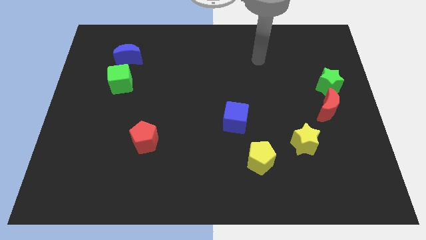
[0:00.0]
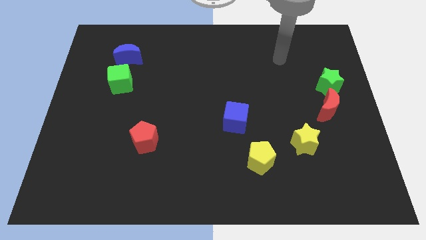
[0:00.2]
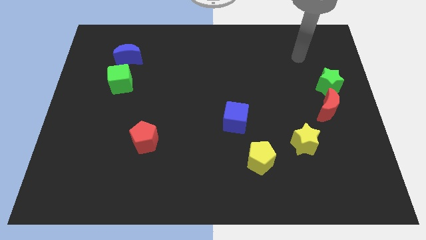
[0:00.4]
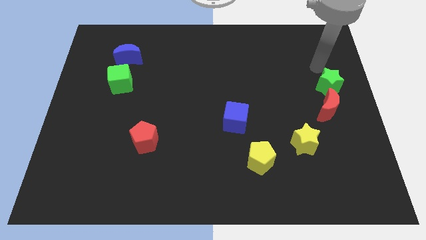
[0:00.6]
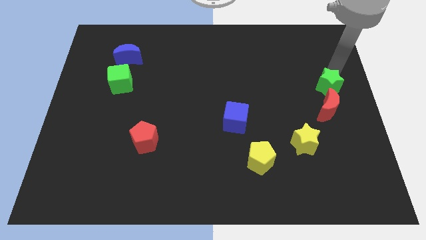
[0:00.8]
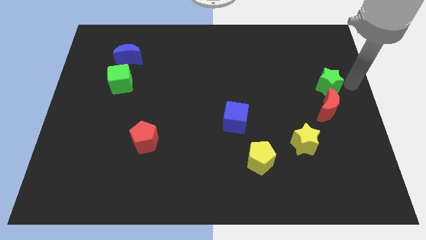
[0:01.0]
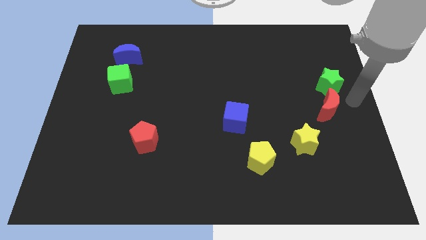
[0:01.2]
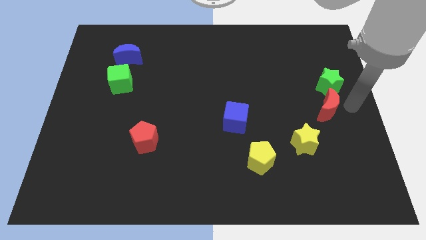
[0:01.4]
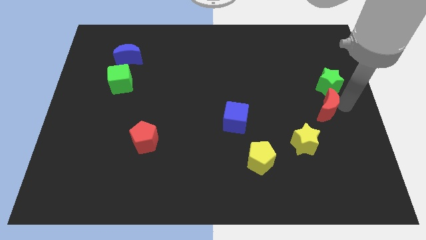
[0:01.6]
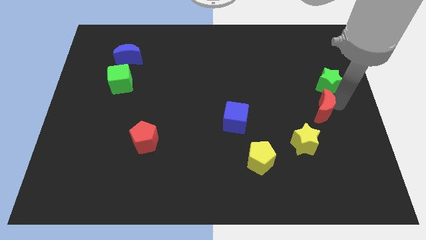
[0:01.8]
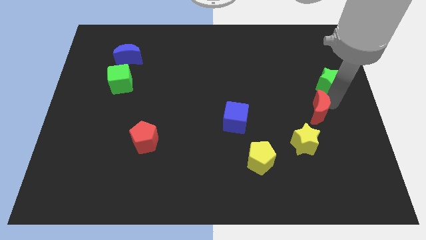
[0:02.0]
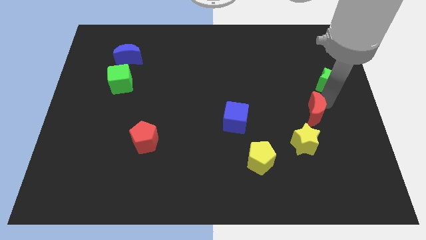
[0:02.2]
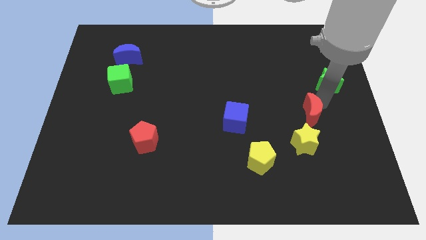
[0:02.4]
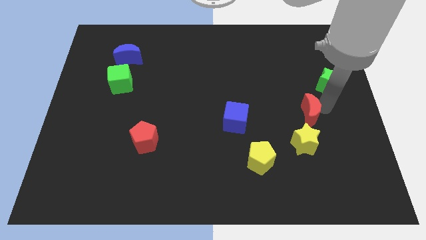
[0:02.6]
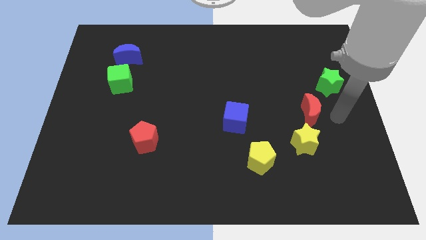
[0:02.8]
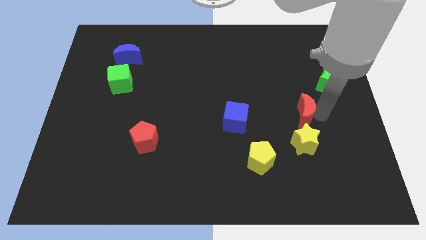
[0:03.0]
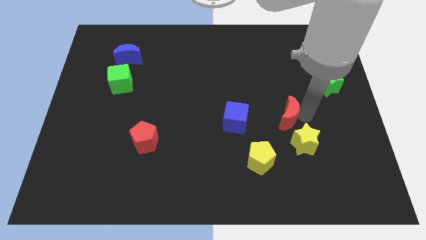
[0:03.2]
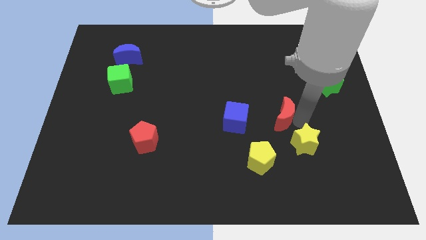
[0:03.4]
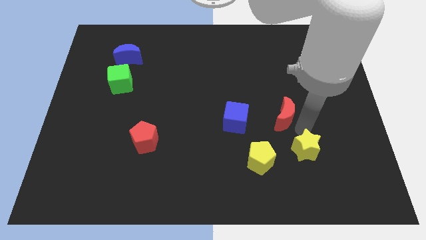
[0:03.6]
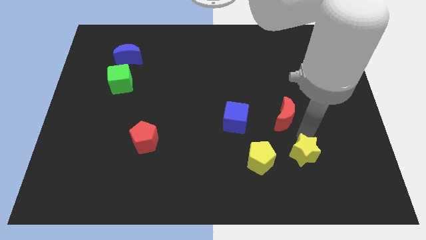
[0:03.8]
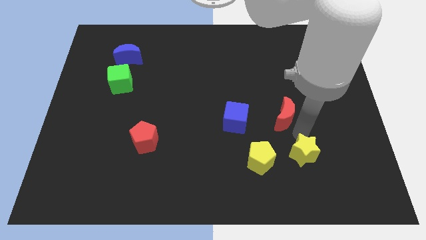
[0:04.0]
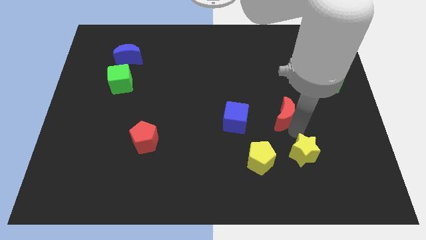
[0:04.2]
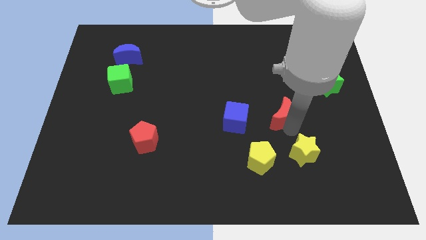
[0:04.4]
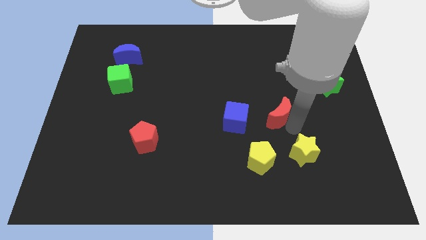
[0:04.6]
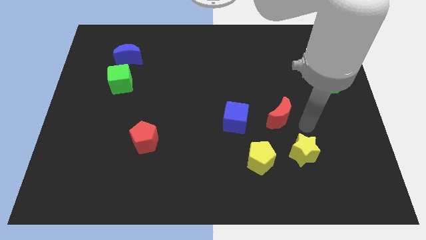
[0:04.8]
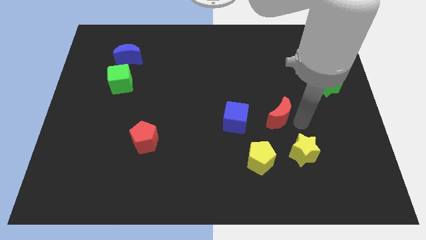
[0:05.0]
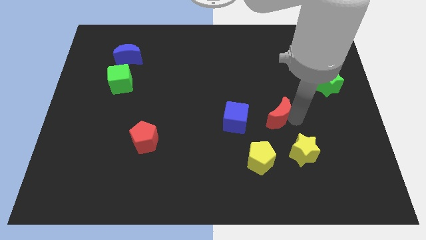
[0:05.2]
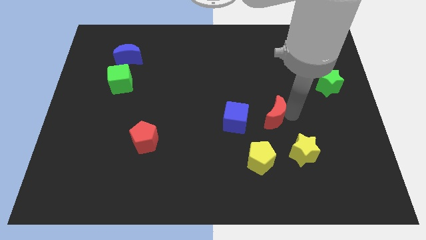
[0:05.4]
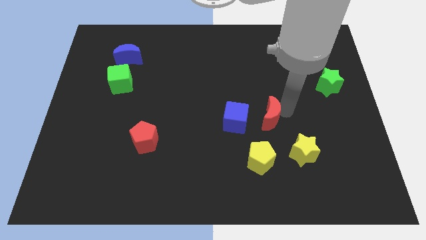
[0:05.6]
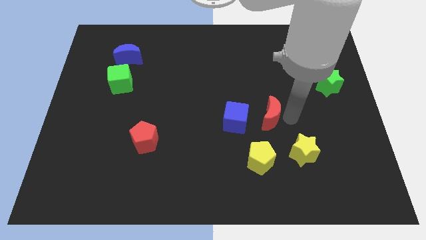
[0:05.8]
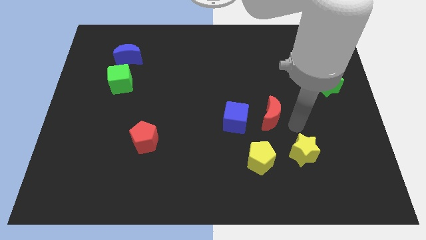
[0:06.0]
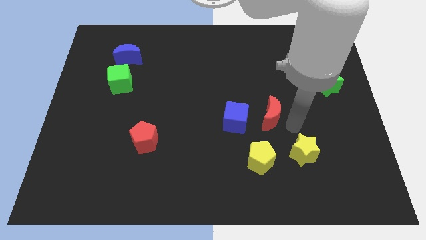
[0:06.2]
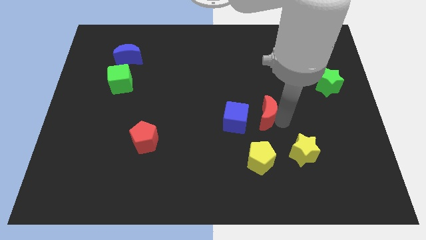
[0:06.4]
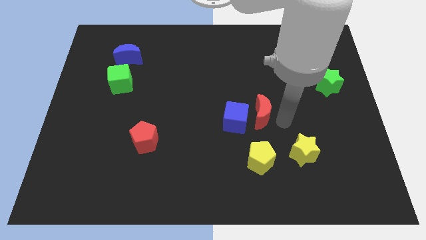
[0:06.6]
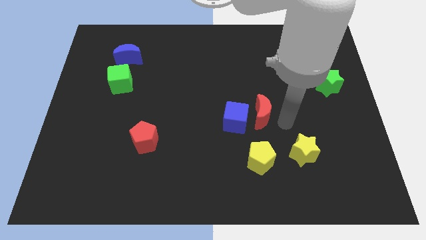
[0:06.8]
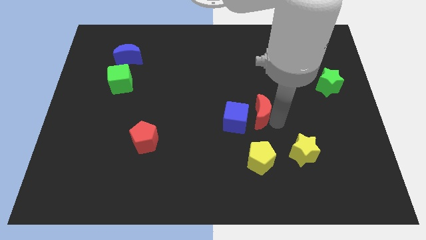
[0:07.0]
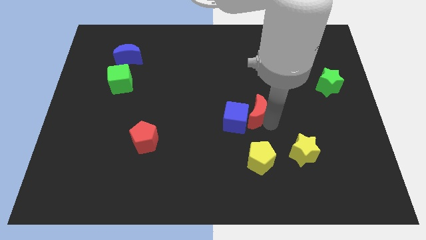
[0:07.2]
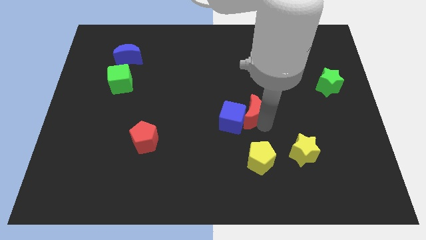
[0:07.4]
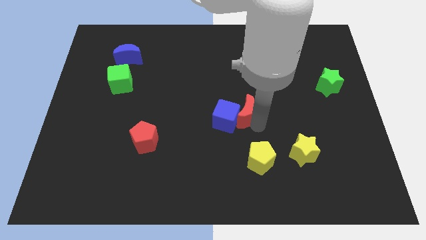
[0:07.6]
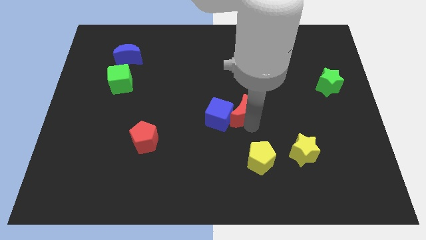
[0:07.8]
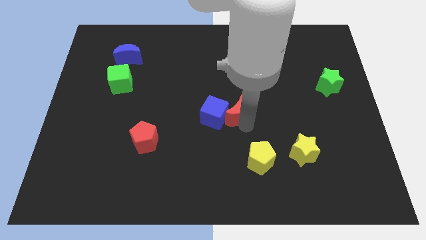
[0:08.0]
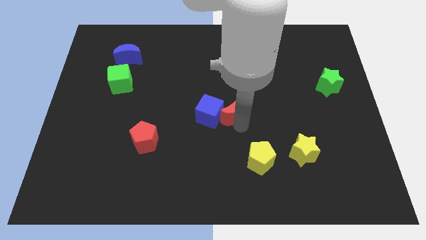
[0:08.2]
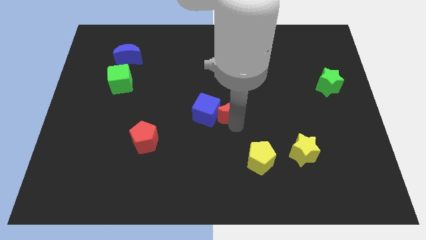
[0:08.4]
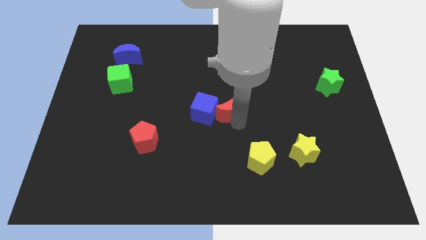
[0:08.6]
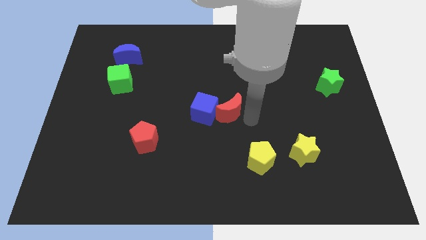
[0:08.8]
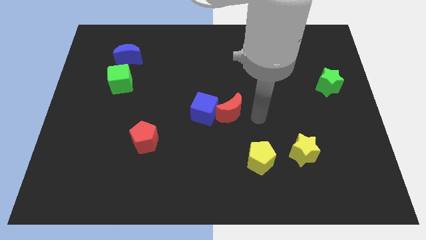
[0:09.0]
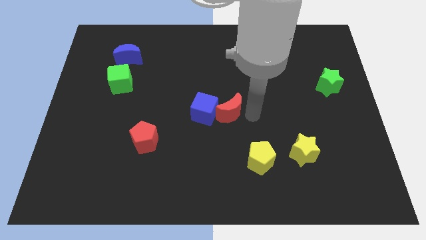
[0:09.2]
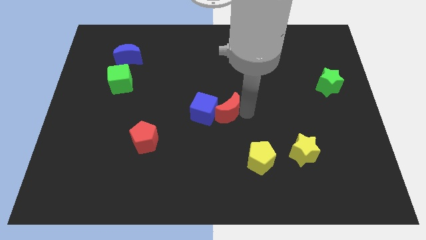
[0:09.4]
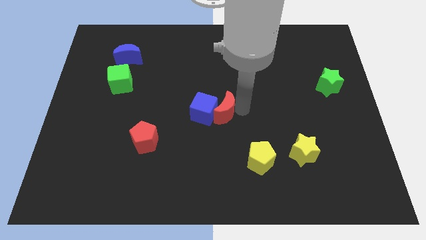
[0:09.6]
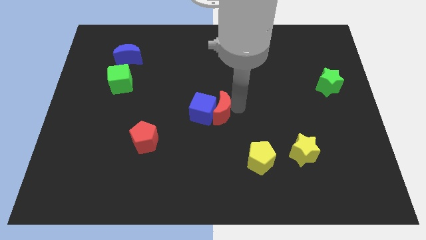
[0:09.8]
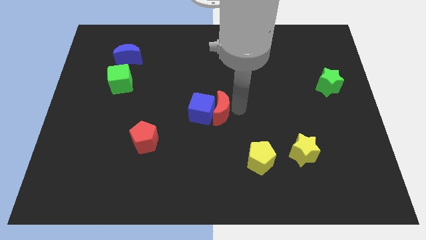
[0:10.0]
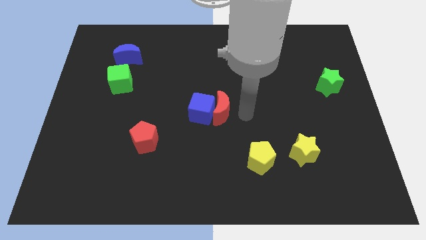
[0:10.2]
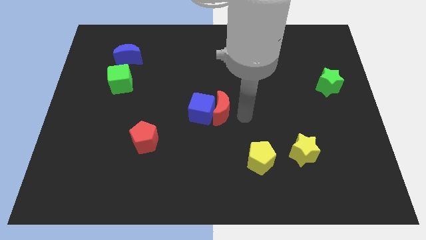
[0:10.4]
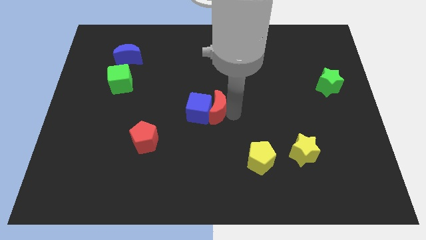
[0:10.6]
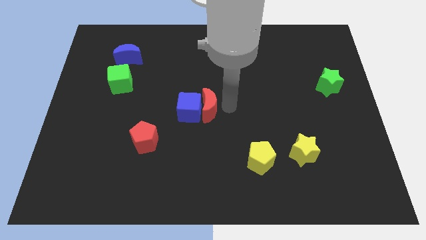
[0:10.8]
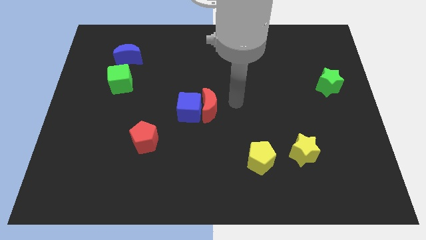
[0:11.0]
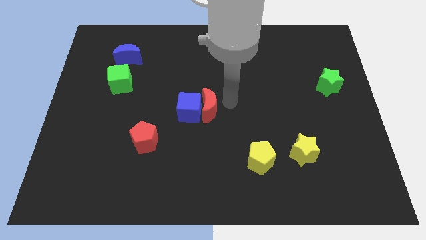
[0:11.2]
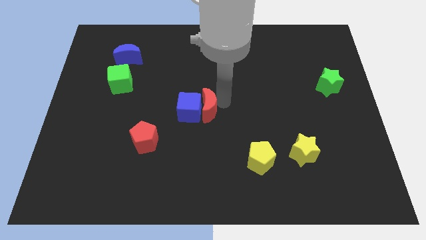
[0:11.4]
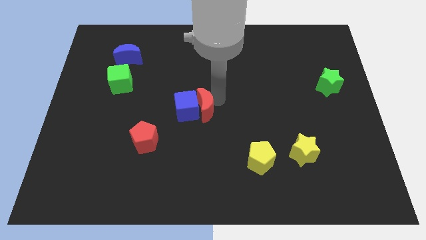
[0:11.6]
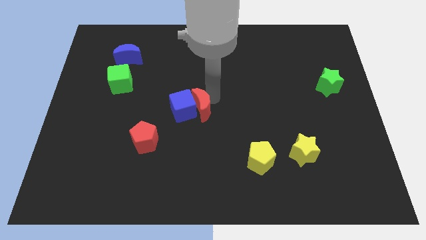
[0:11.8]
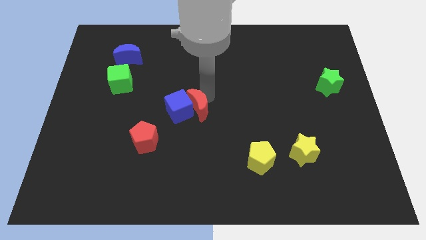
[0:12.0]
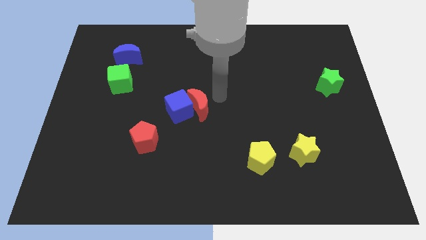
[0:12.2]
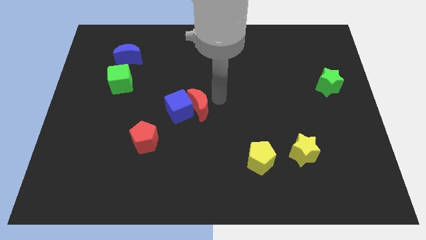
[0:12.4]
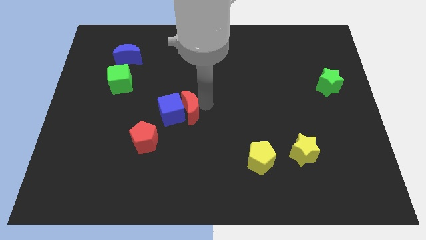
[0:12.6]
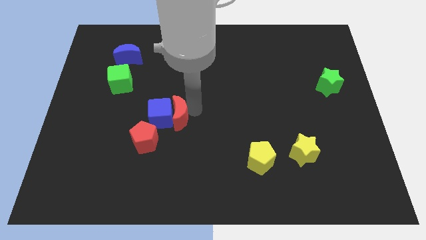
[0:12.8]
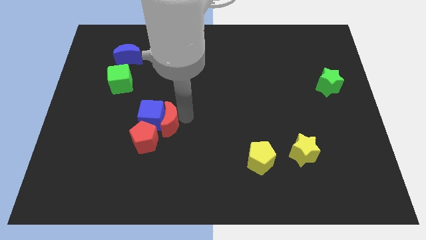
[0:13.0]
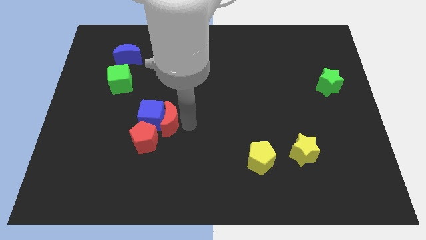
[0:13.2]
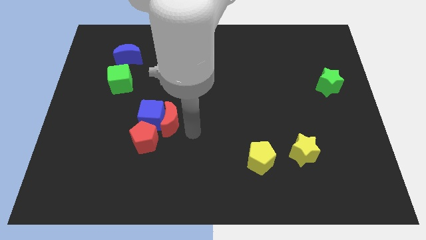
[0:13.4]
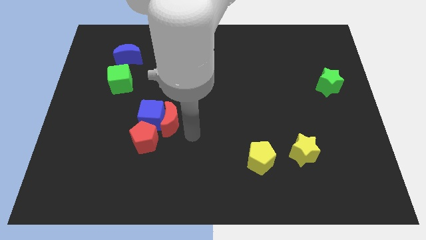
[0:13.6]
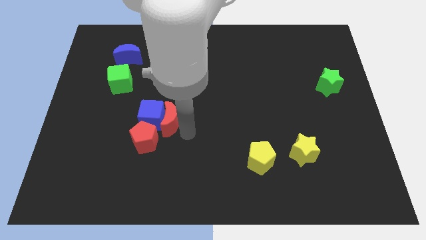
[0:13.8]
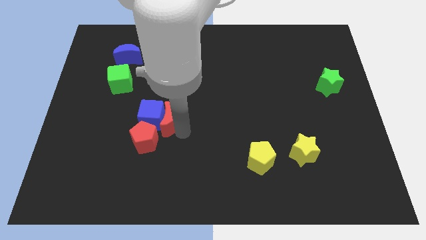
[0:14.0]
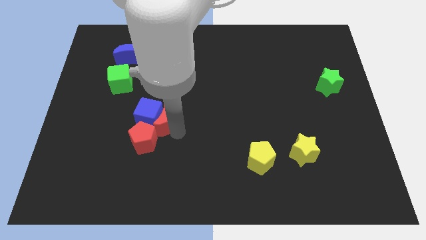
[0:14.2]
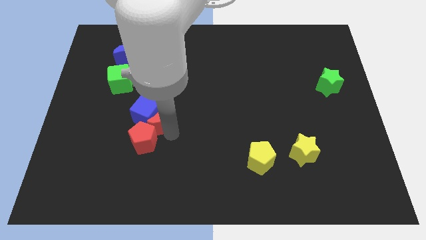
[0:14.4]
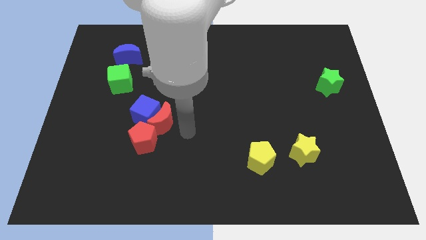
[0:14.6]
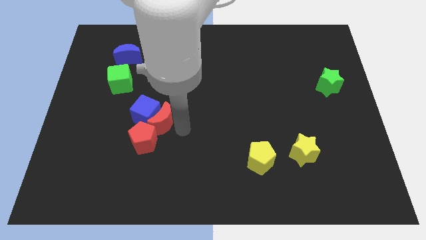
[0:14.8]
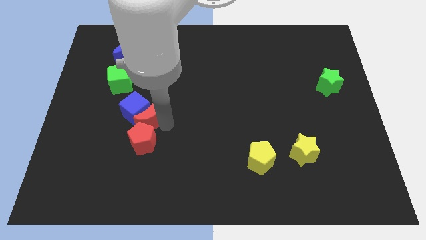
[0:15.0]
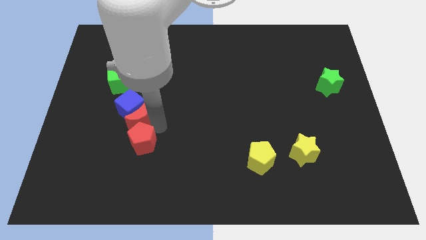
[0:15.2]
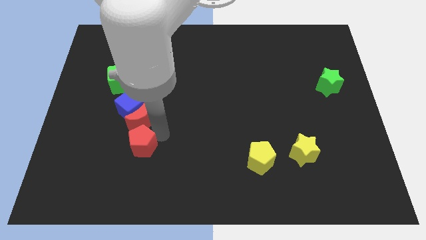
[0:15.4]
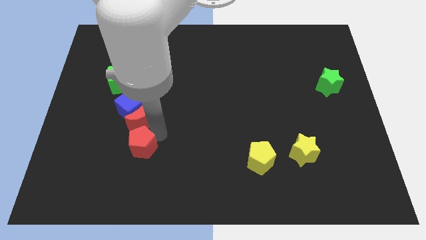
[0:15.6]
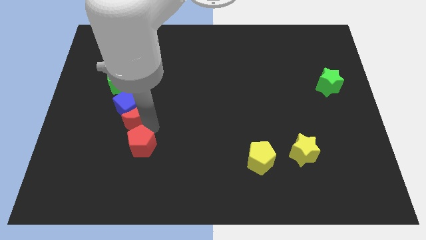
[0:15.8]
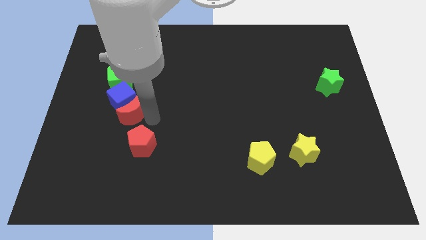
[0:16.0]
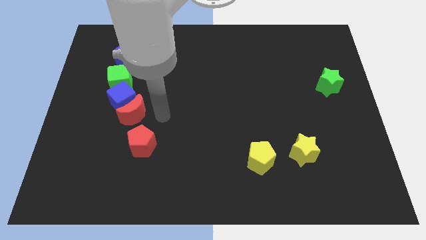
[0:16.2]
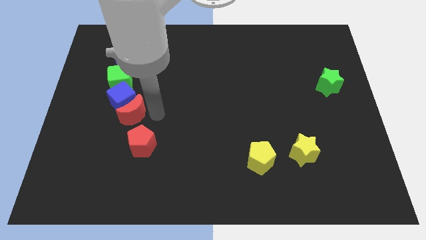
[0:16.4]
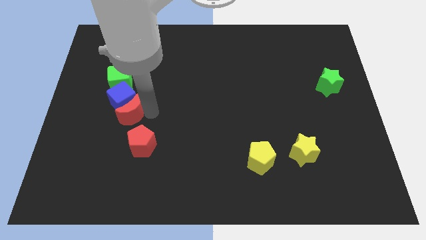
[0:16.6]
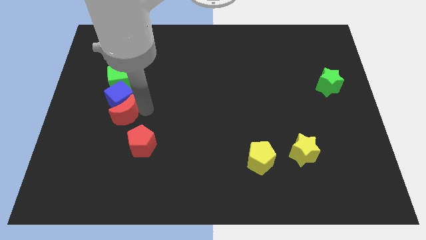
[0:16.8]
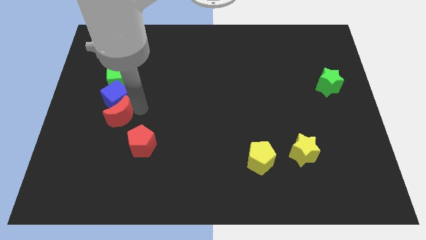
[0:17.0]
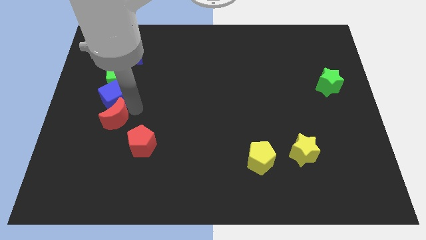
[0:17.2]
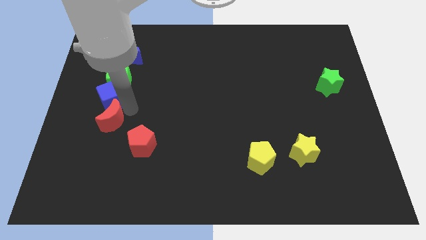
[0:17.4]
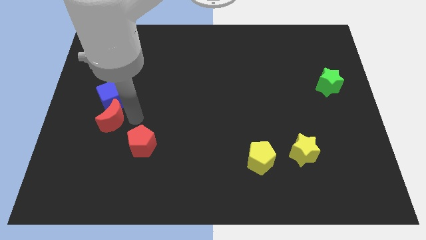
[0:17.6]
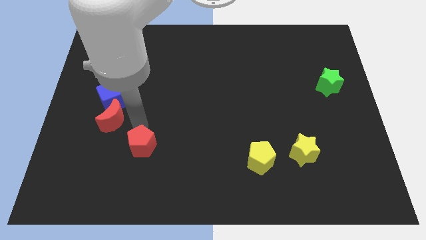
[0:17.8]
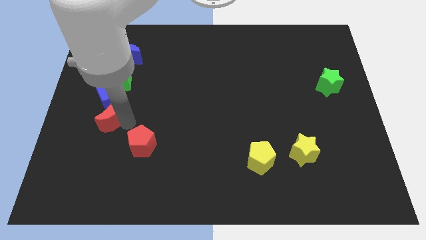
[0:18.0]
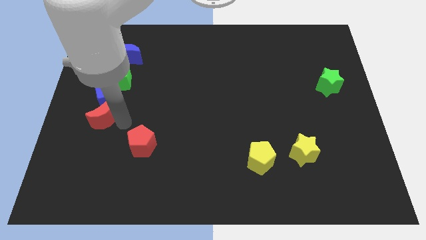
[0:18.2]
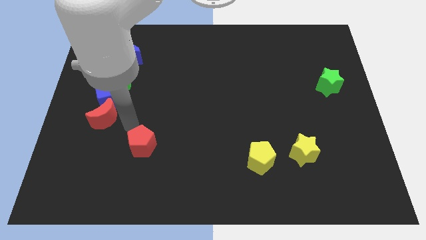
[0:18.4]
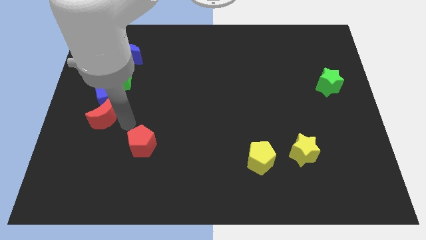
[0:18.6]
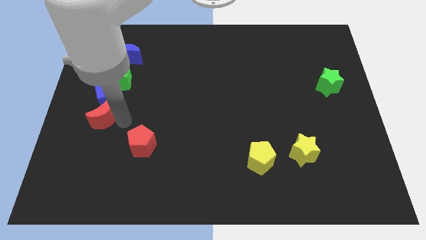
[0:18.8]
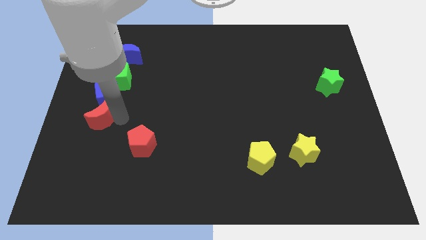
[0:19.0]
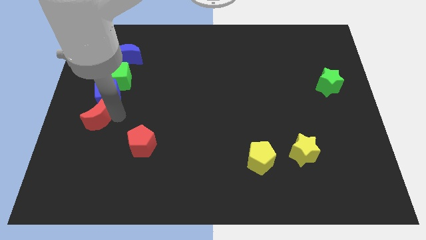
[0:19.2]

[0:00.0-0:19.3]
put the red moon to the left side of the board
